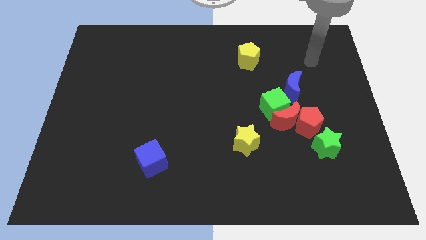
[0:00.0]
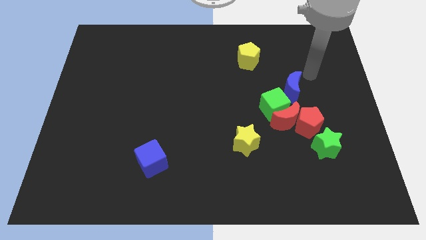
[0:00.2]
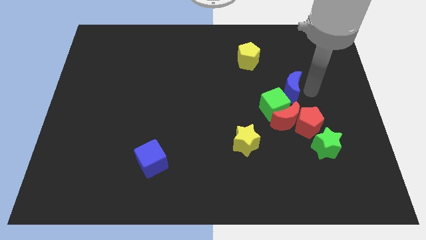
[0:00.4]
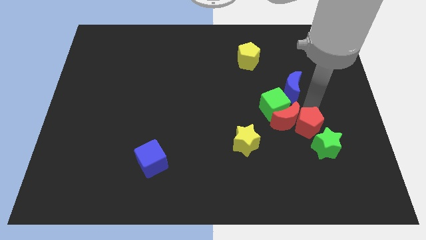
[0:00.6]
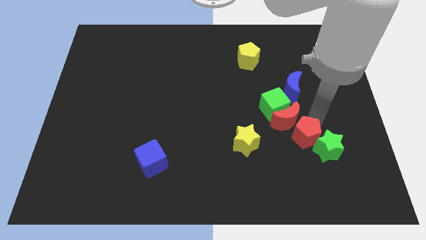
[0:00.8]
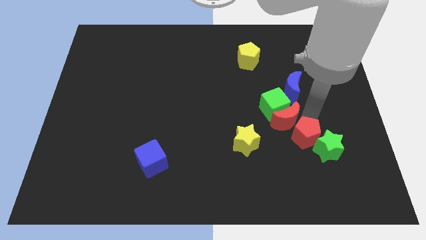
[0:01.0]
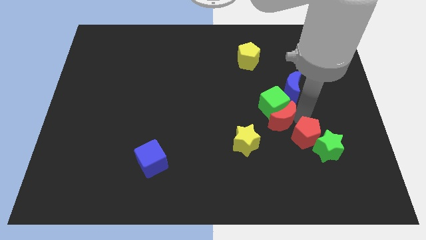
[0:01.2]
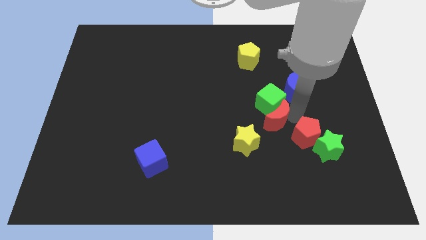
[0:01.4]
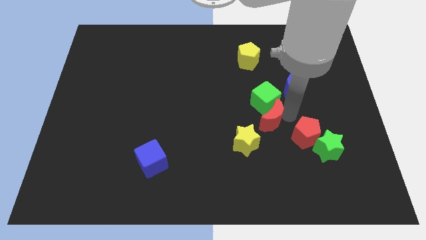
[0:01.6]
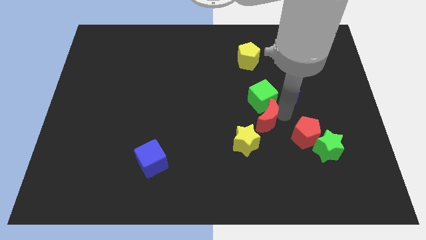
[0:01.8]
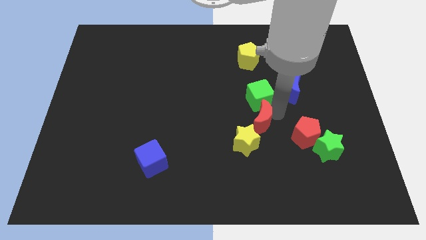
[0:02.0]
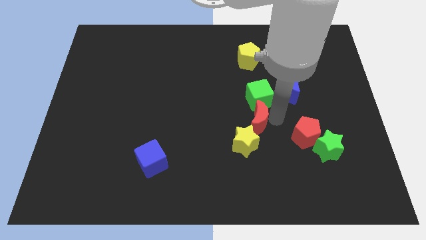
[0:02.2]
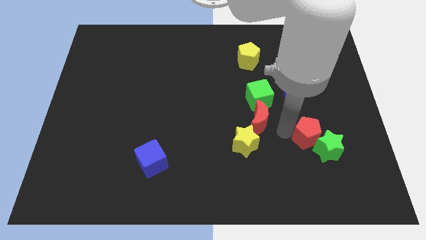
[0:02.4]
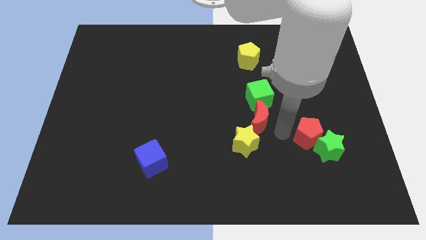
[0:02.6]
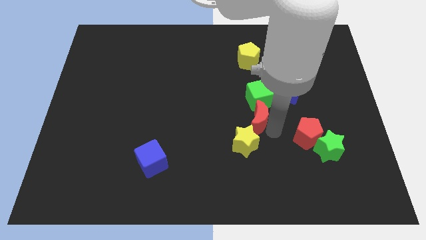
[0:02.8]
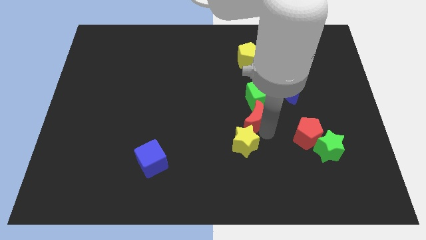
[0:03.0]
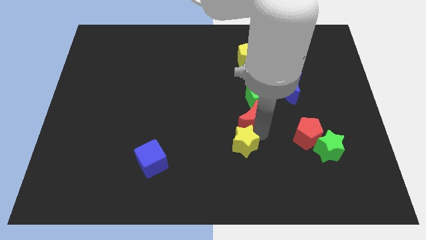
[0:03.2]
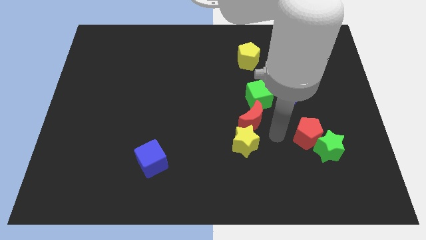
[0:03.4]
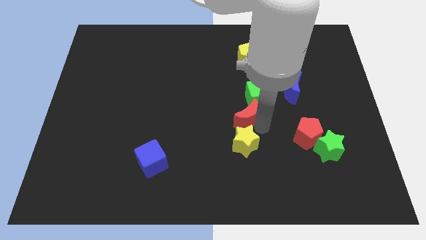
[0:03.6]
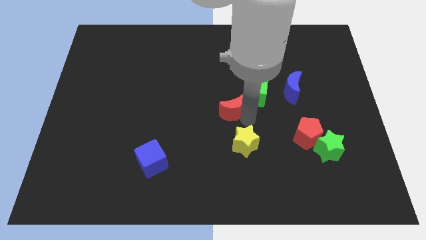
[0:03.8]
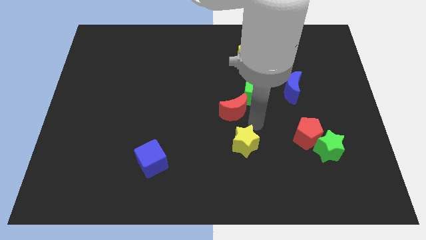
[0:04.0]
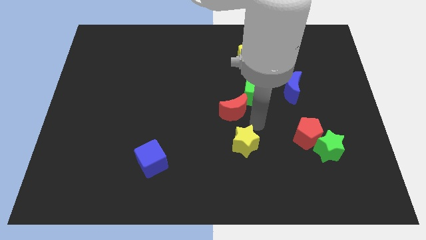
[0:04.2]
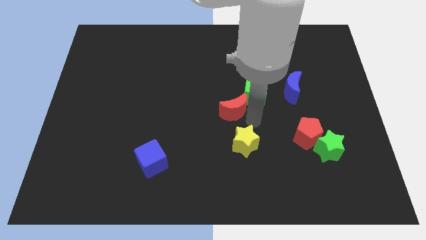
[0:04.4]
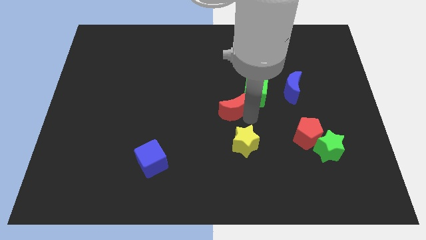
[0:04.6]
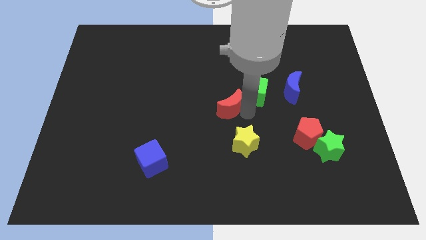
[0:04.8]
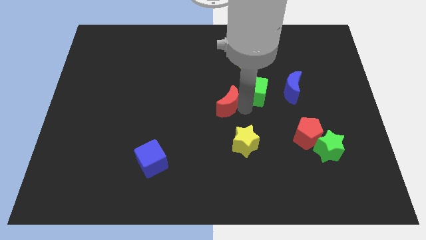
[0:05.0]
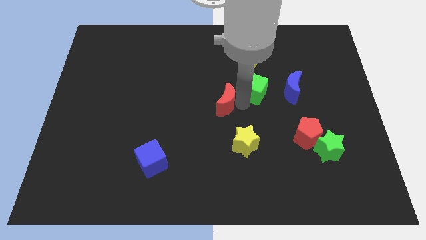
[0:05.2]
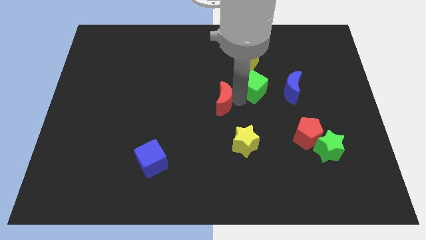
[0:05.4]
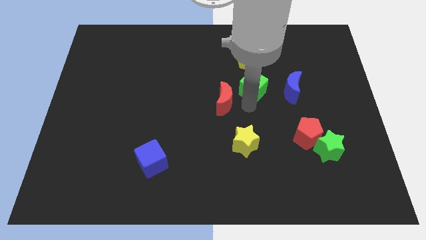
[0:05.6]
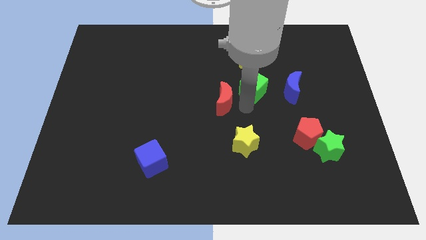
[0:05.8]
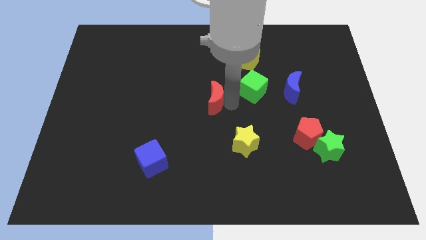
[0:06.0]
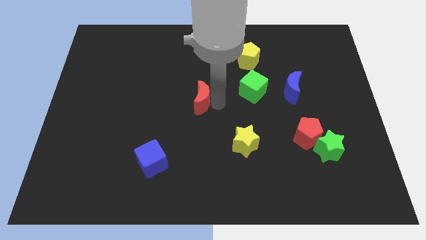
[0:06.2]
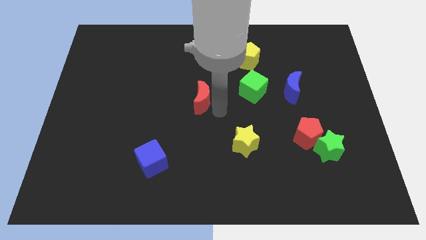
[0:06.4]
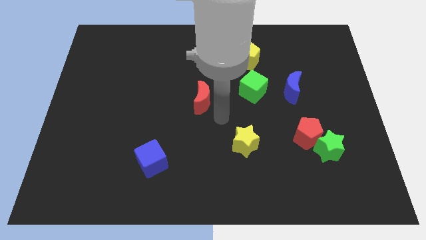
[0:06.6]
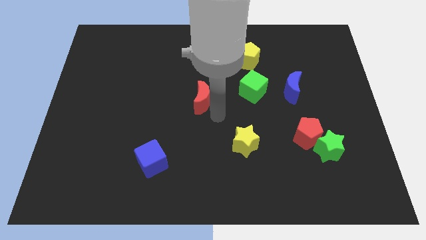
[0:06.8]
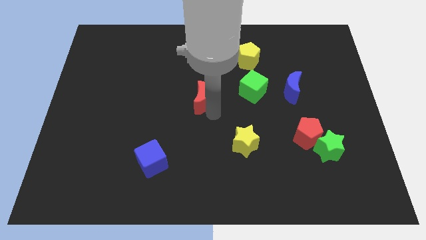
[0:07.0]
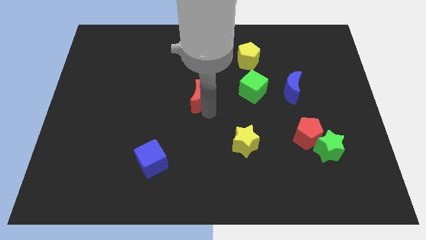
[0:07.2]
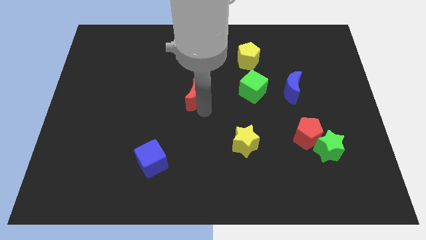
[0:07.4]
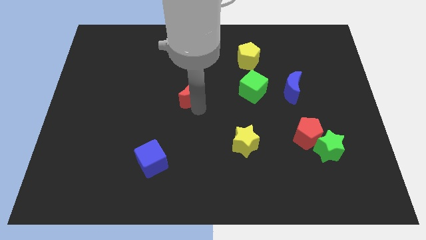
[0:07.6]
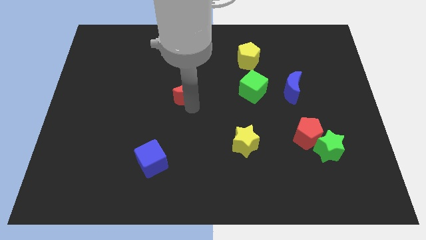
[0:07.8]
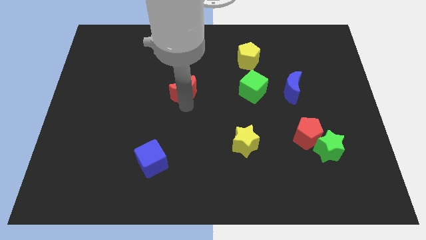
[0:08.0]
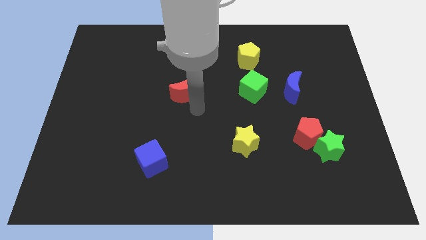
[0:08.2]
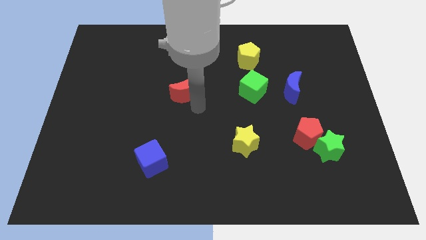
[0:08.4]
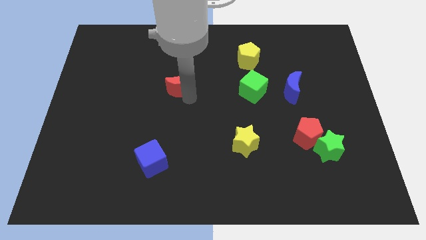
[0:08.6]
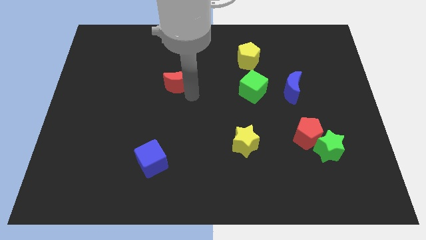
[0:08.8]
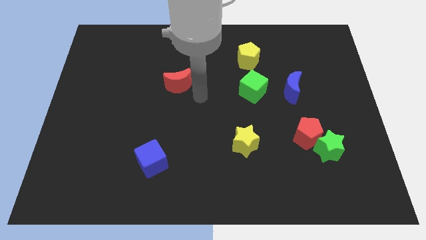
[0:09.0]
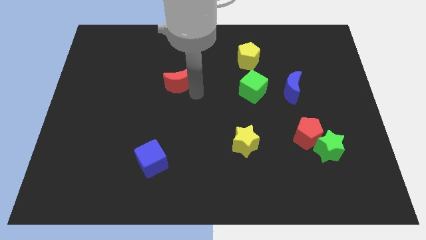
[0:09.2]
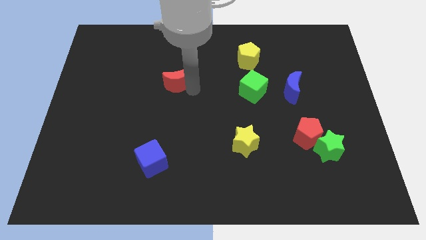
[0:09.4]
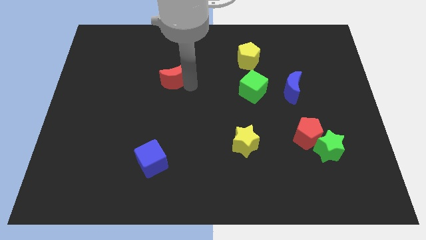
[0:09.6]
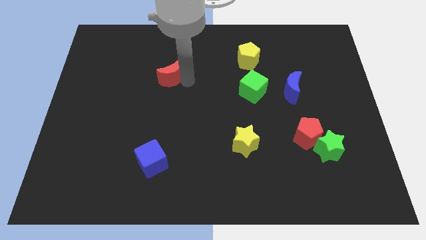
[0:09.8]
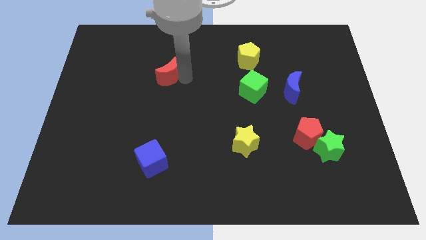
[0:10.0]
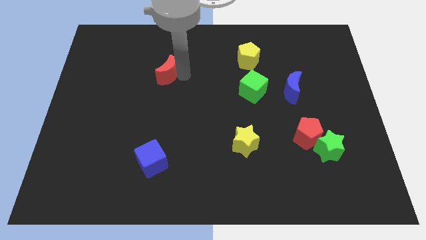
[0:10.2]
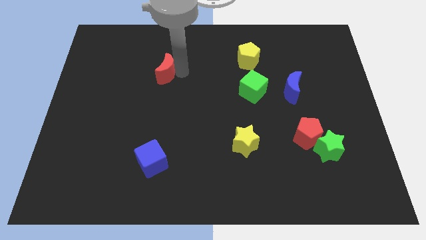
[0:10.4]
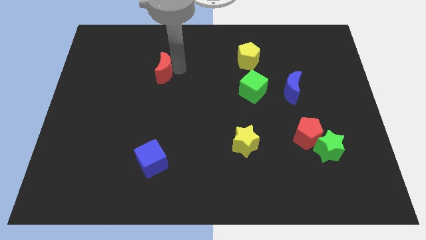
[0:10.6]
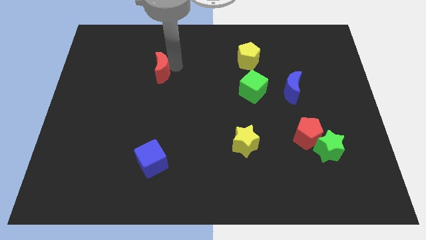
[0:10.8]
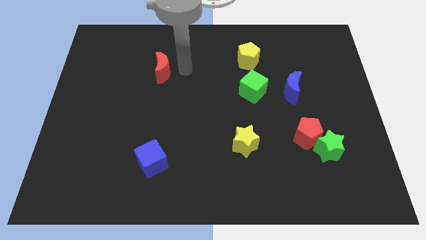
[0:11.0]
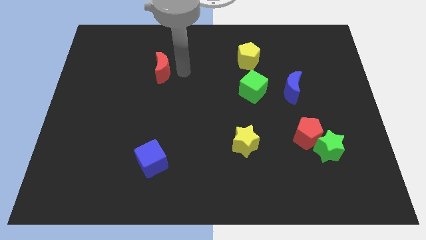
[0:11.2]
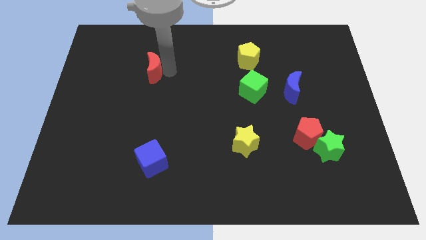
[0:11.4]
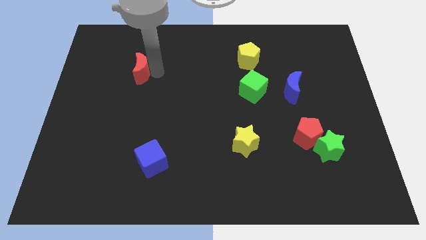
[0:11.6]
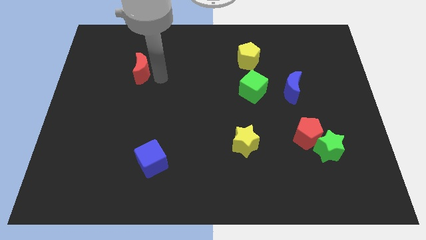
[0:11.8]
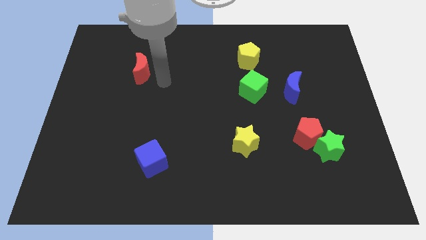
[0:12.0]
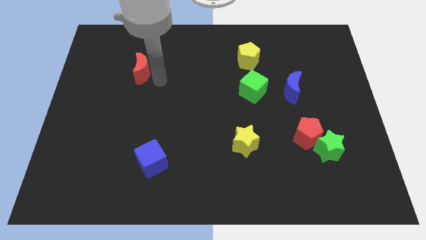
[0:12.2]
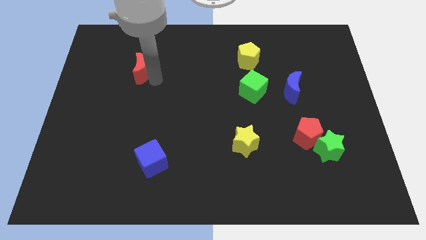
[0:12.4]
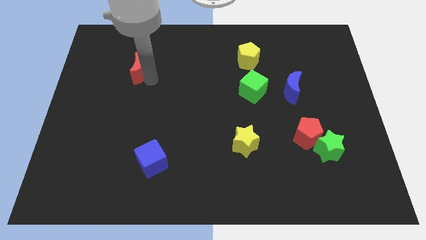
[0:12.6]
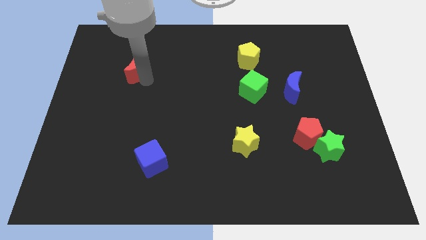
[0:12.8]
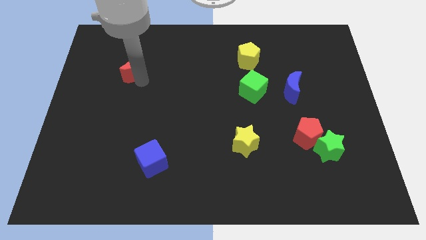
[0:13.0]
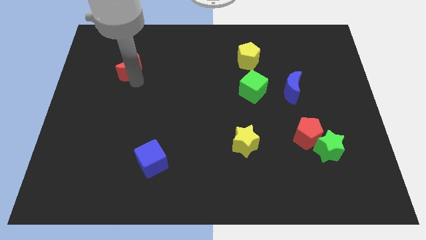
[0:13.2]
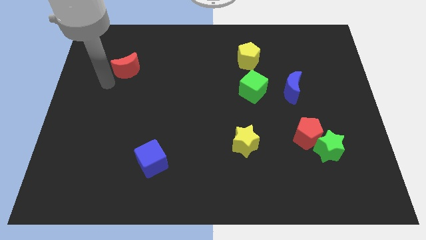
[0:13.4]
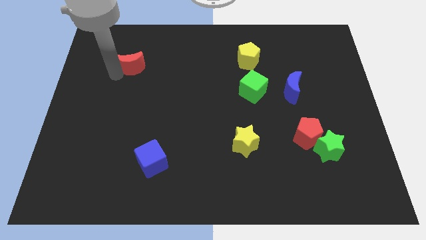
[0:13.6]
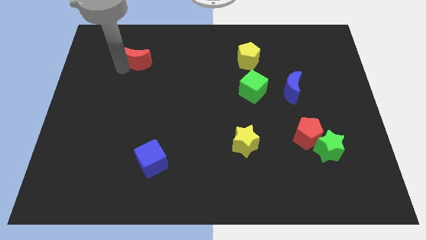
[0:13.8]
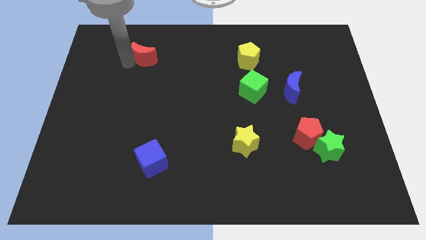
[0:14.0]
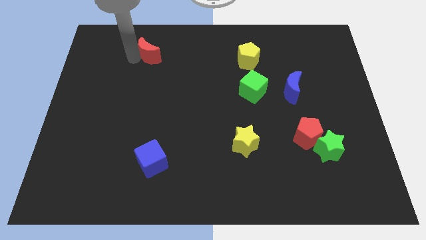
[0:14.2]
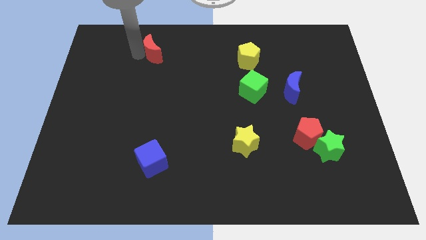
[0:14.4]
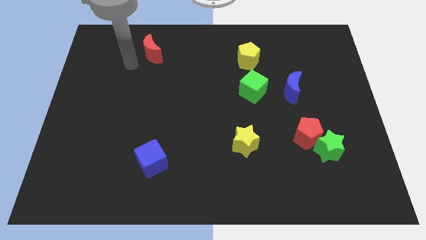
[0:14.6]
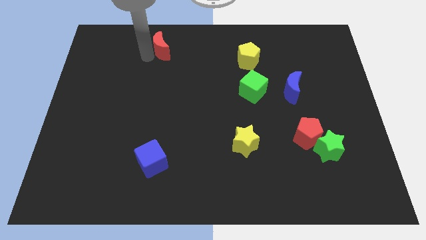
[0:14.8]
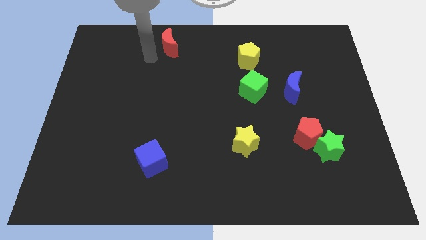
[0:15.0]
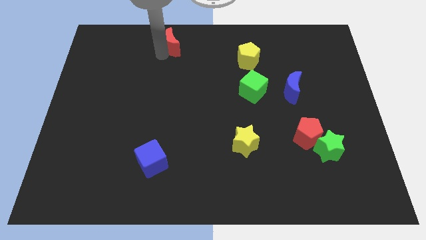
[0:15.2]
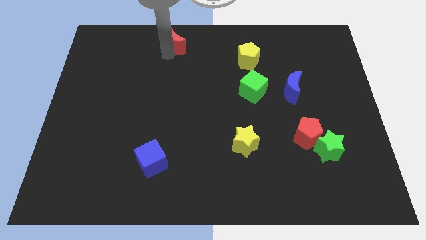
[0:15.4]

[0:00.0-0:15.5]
push the red moon to the towards your base
